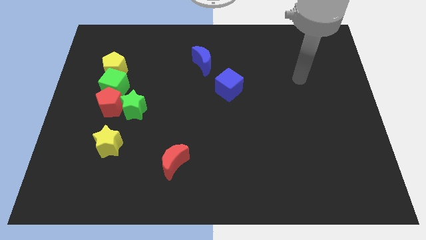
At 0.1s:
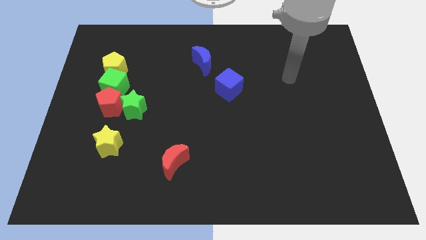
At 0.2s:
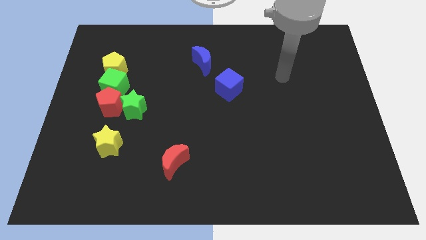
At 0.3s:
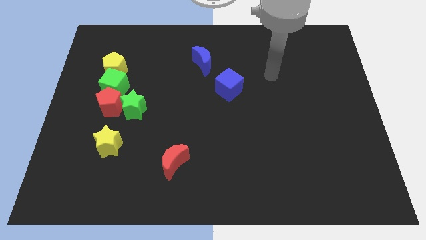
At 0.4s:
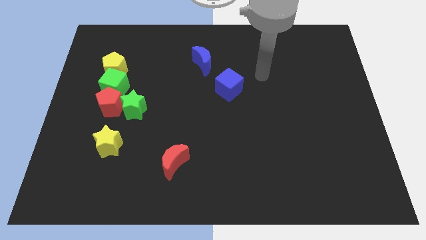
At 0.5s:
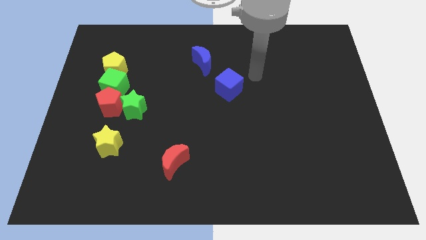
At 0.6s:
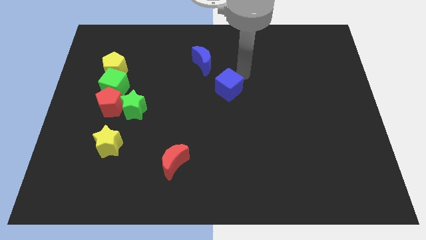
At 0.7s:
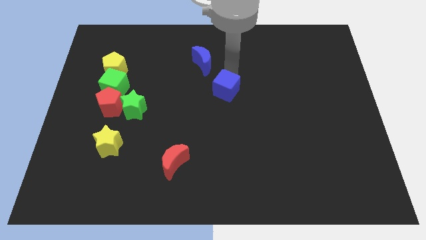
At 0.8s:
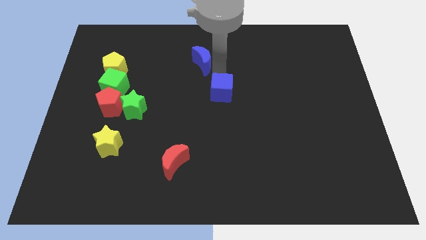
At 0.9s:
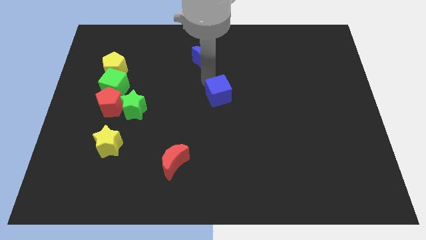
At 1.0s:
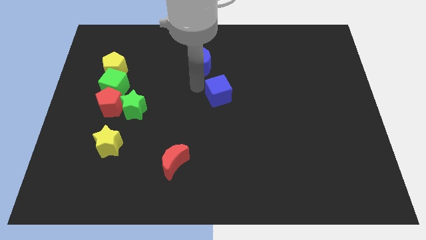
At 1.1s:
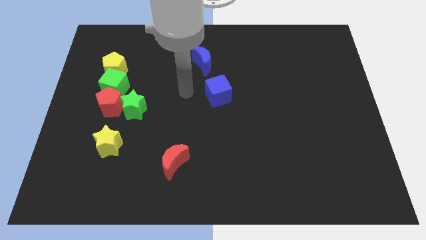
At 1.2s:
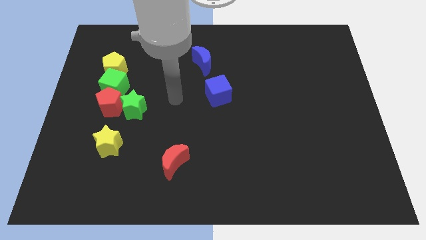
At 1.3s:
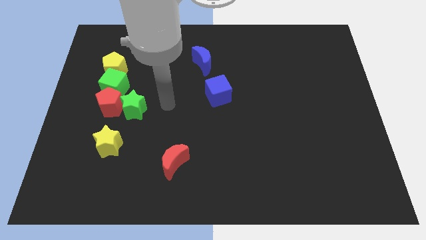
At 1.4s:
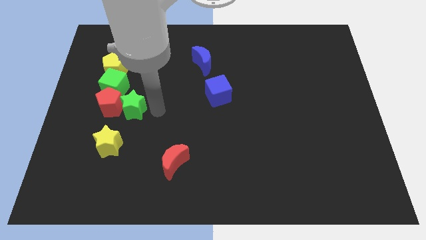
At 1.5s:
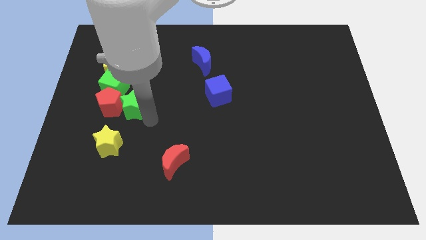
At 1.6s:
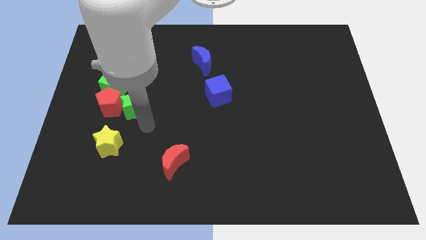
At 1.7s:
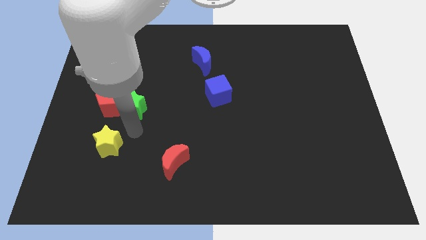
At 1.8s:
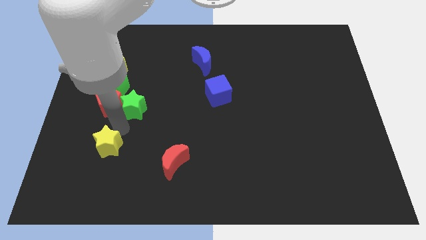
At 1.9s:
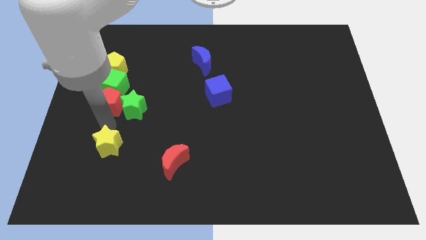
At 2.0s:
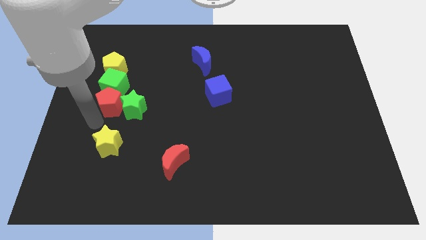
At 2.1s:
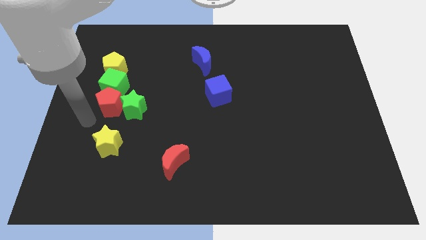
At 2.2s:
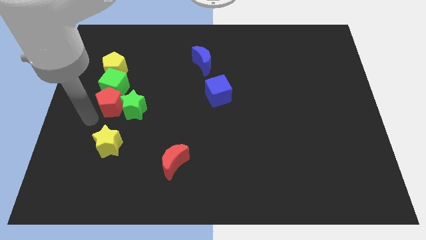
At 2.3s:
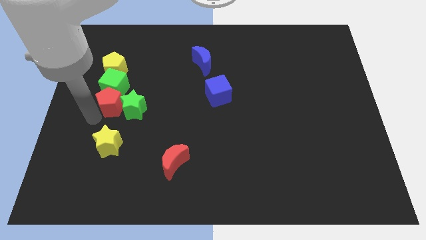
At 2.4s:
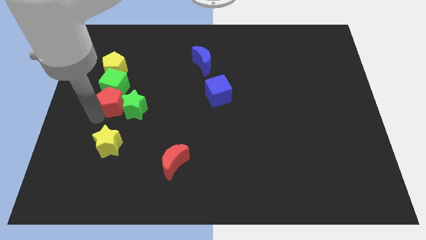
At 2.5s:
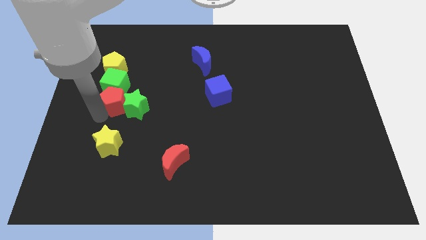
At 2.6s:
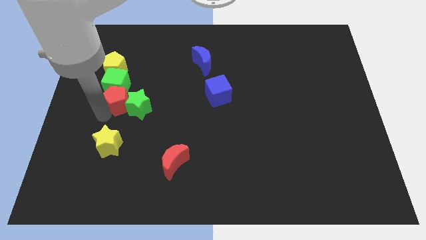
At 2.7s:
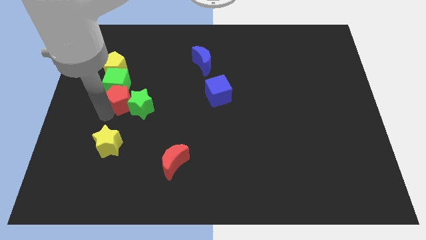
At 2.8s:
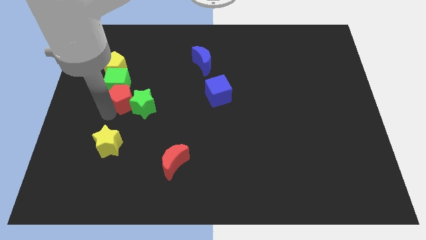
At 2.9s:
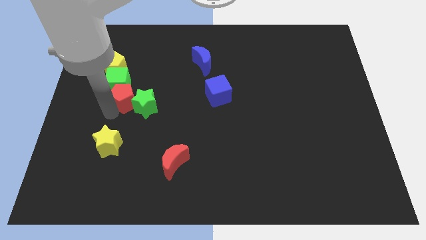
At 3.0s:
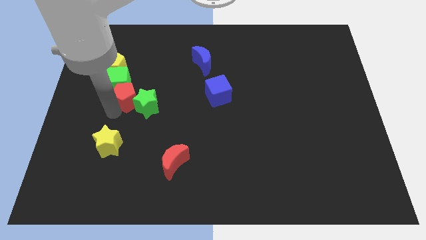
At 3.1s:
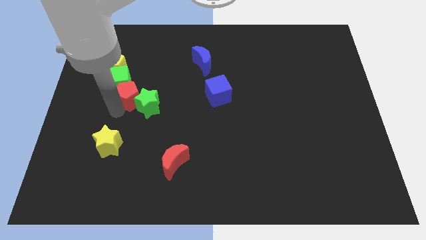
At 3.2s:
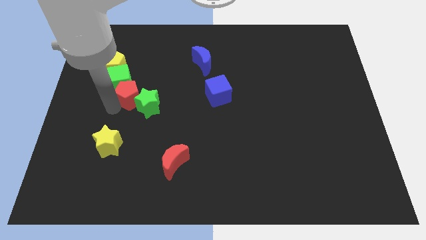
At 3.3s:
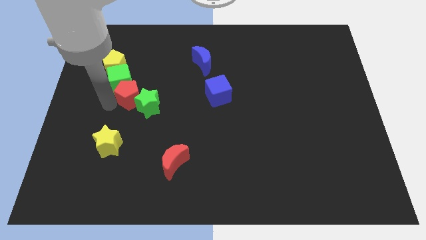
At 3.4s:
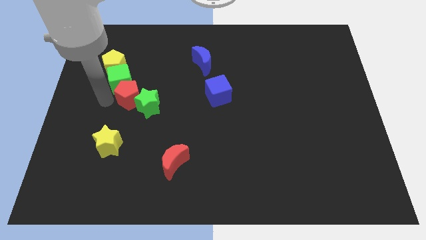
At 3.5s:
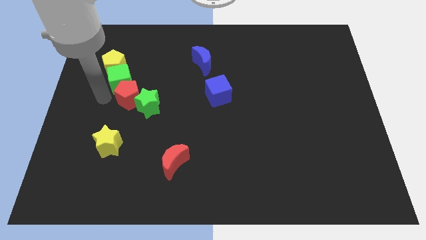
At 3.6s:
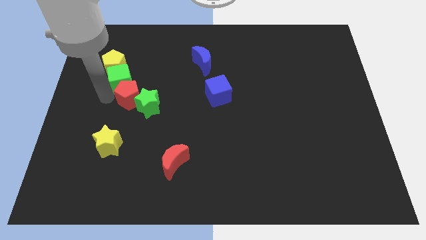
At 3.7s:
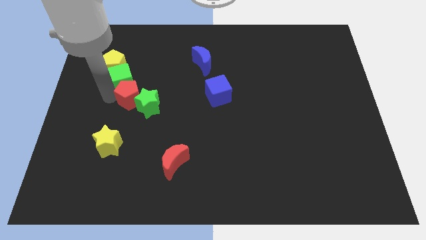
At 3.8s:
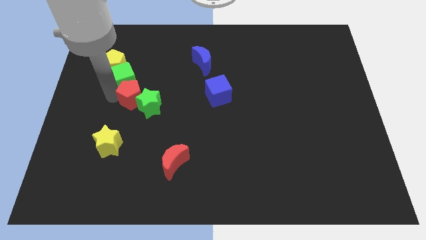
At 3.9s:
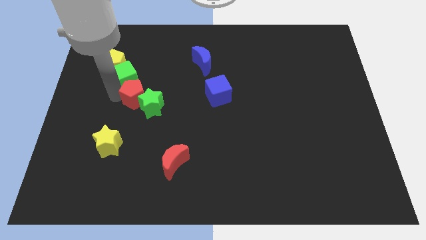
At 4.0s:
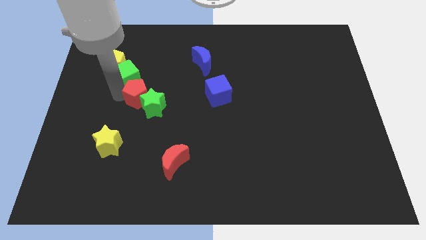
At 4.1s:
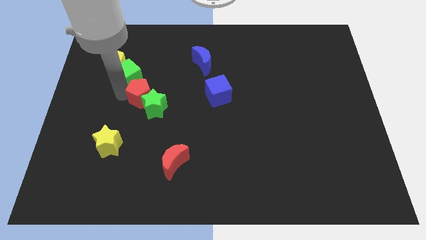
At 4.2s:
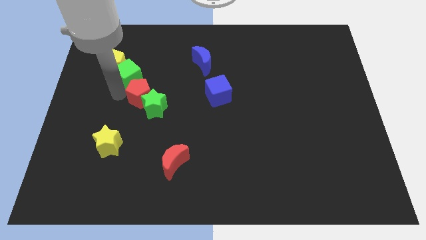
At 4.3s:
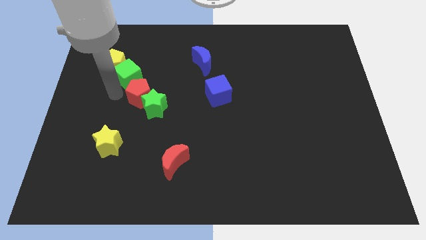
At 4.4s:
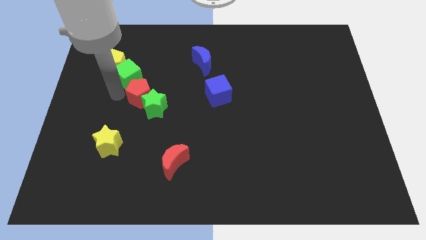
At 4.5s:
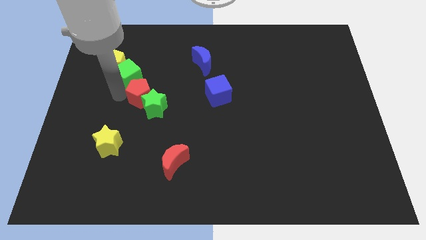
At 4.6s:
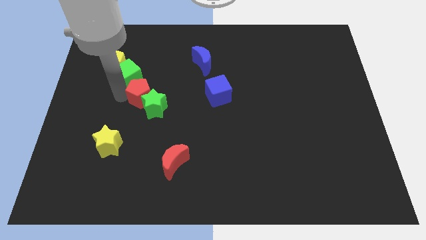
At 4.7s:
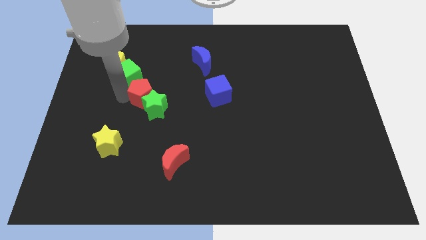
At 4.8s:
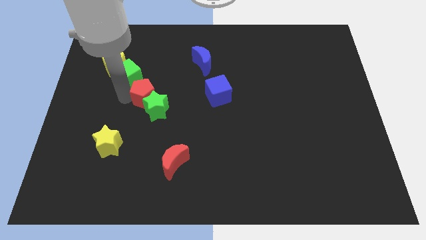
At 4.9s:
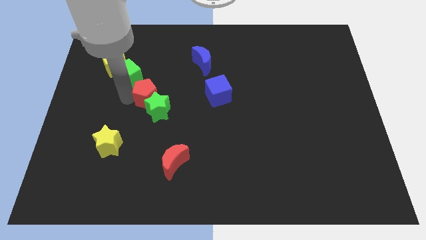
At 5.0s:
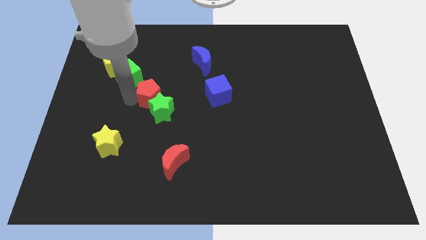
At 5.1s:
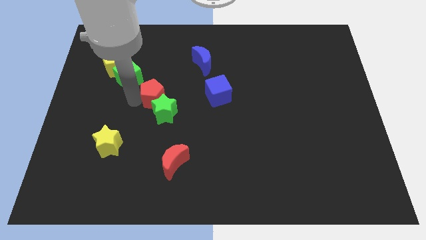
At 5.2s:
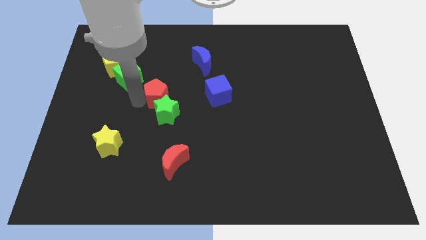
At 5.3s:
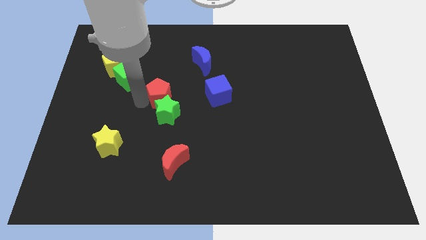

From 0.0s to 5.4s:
slide the red pentagon to the middle of the board

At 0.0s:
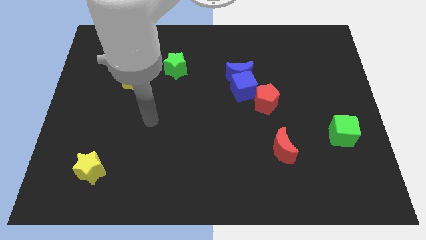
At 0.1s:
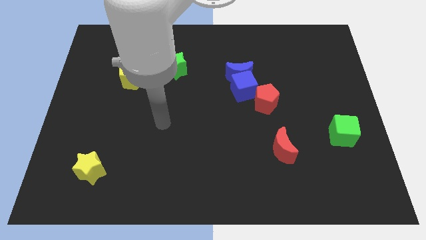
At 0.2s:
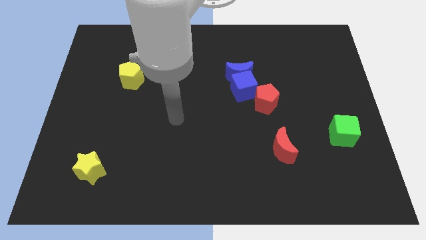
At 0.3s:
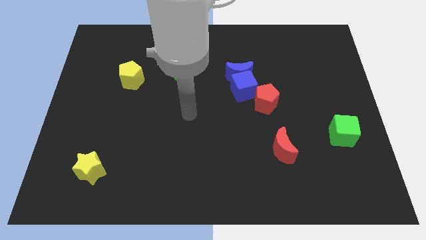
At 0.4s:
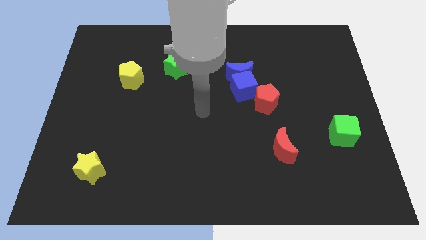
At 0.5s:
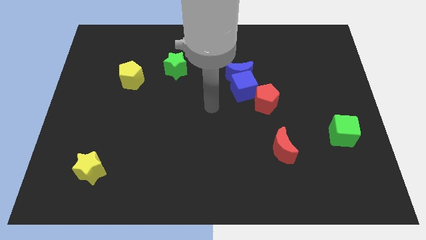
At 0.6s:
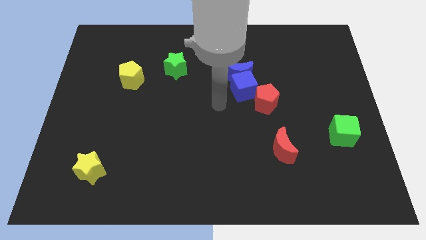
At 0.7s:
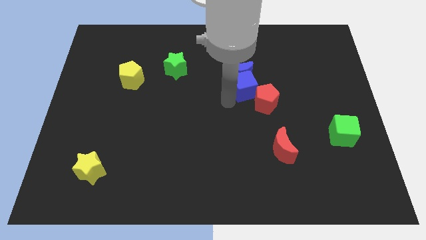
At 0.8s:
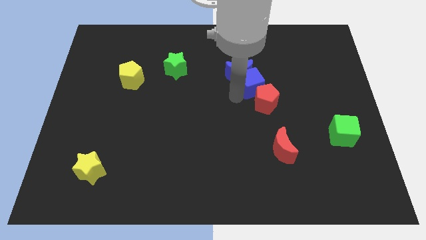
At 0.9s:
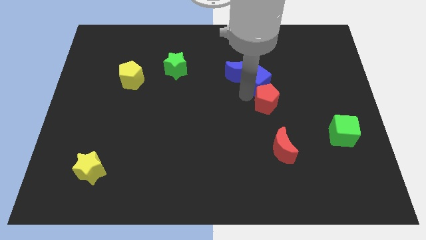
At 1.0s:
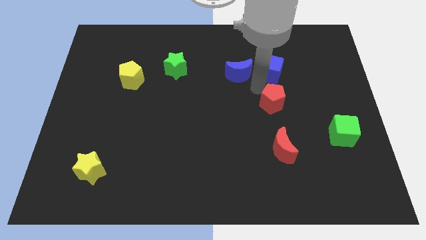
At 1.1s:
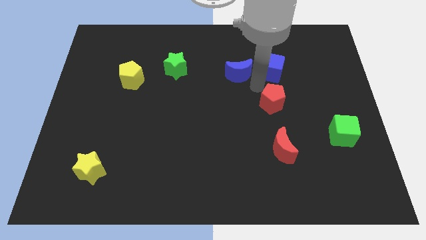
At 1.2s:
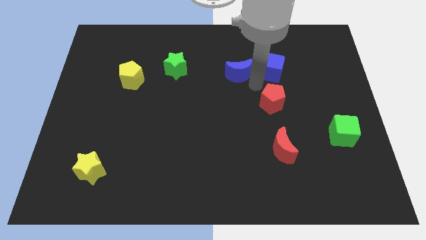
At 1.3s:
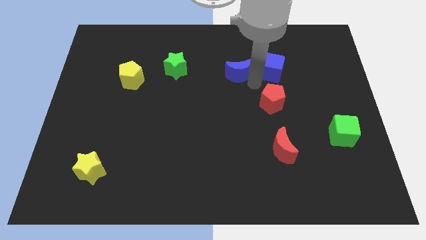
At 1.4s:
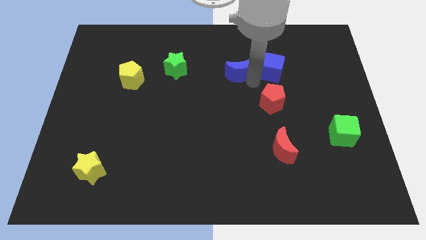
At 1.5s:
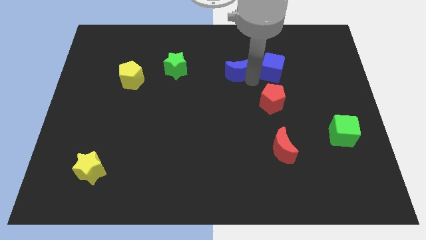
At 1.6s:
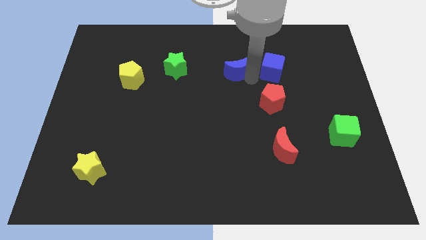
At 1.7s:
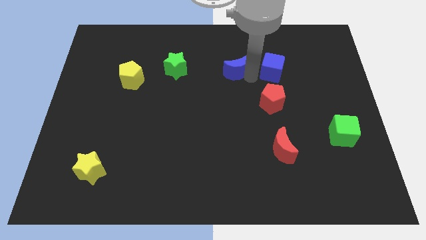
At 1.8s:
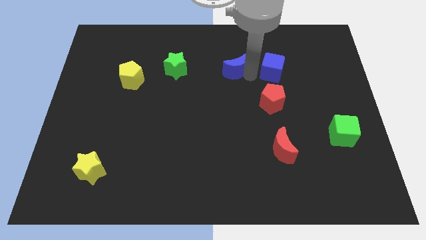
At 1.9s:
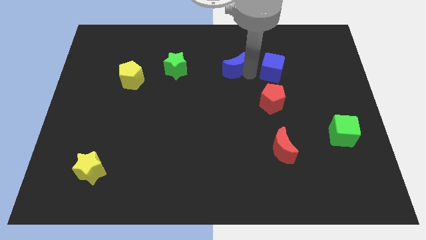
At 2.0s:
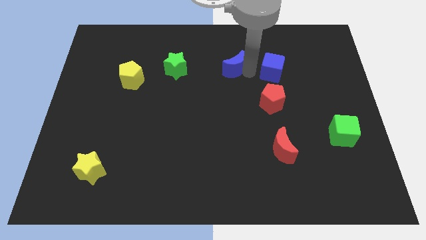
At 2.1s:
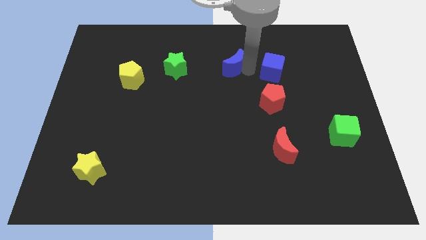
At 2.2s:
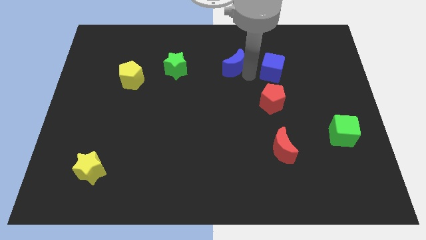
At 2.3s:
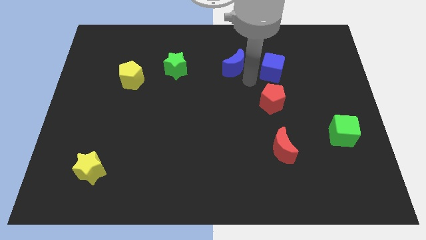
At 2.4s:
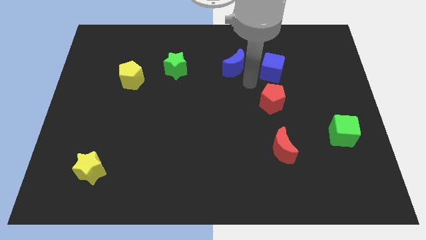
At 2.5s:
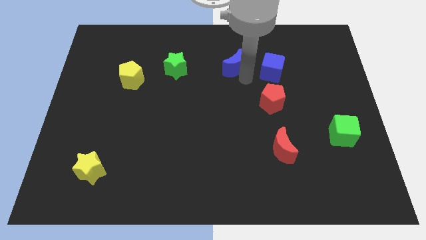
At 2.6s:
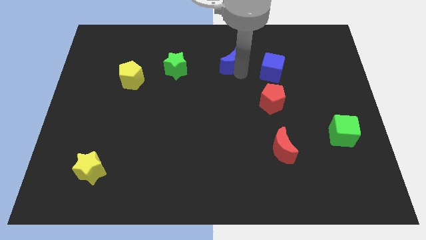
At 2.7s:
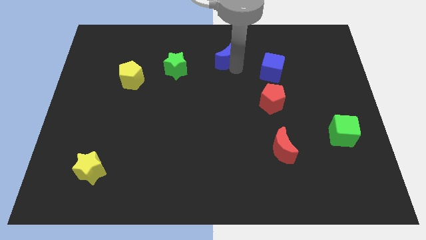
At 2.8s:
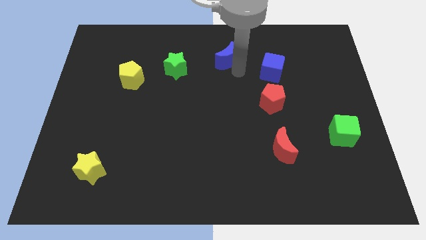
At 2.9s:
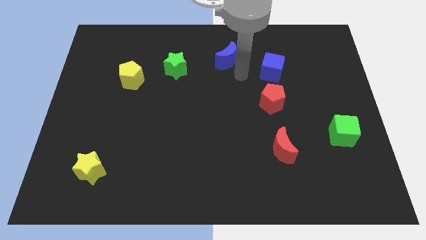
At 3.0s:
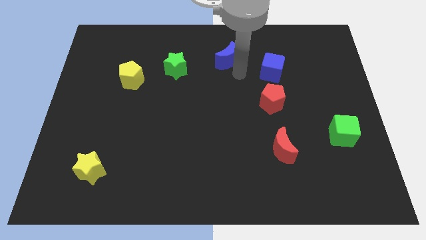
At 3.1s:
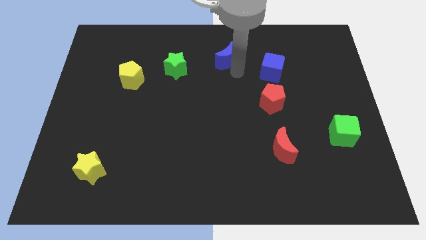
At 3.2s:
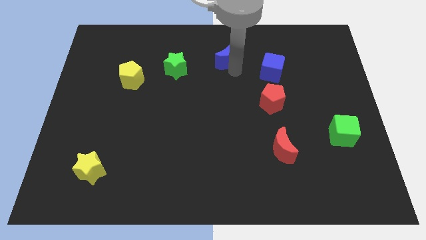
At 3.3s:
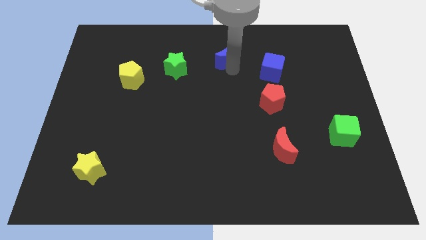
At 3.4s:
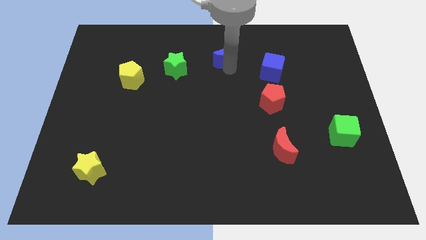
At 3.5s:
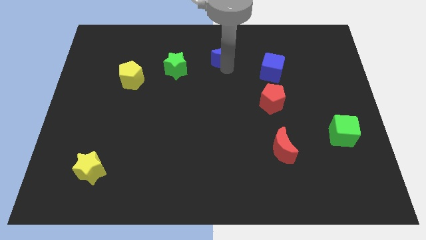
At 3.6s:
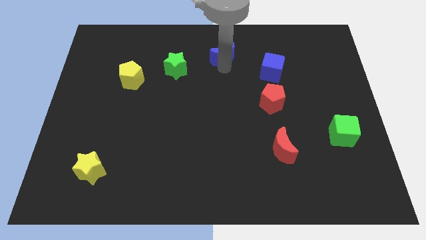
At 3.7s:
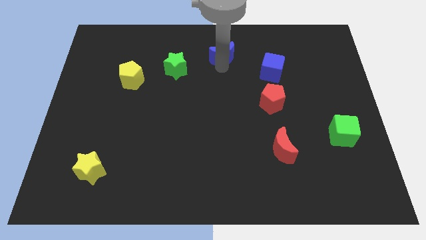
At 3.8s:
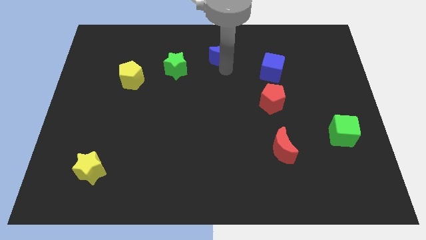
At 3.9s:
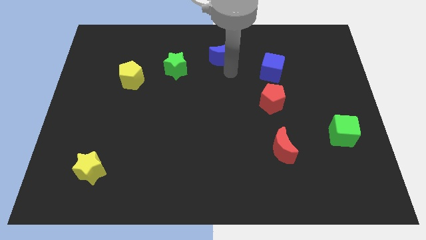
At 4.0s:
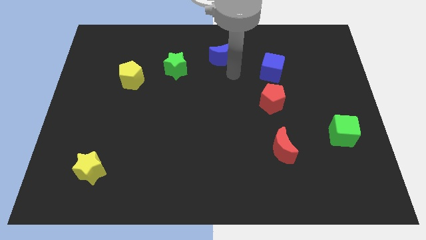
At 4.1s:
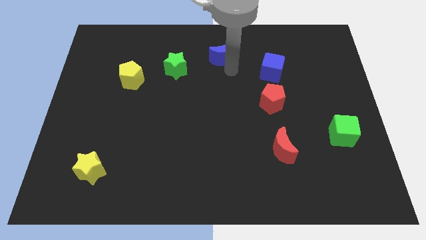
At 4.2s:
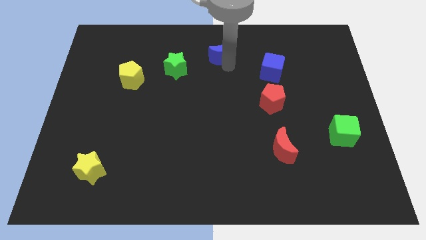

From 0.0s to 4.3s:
put the blue moon to the towards your base
